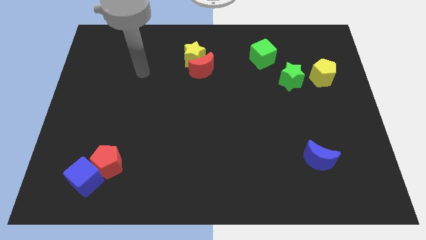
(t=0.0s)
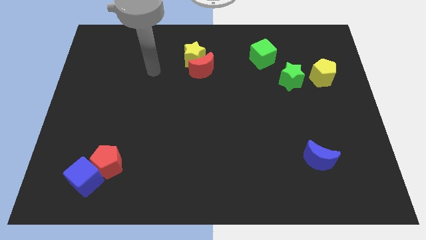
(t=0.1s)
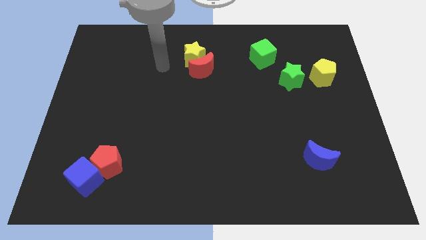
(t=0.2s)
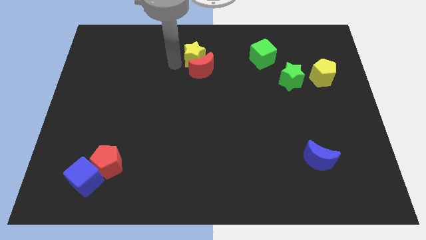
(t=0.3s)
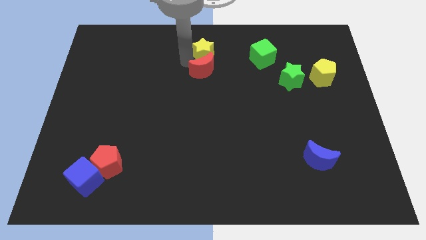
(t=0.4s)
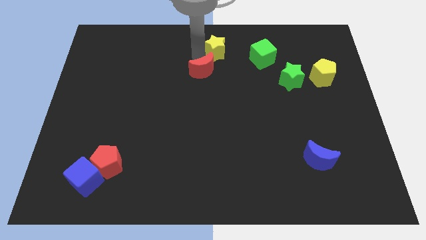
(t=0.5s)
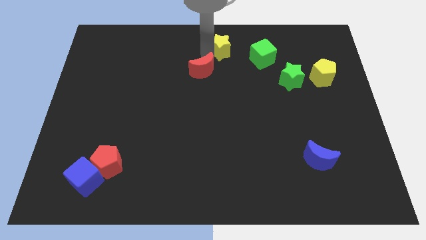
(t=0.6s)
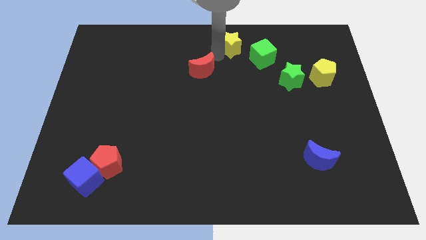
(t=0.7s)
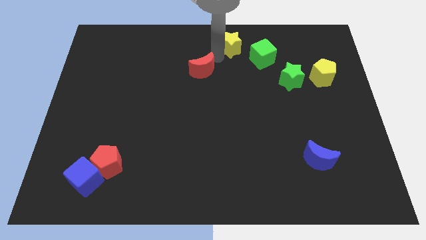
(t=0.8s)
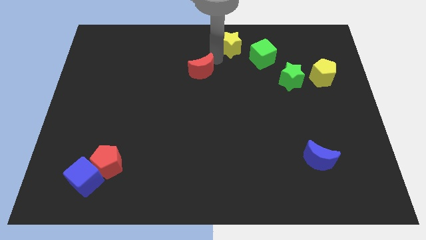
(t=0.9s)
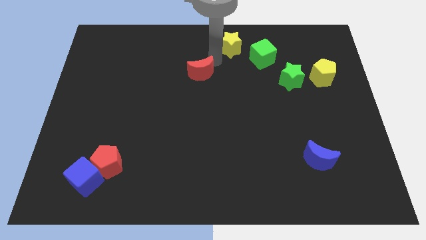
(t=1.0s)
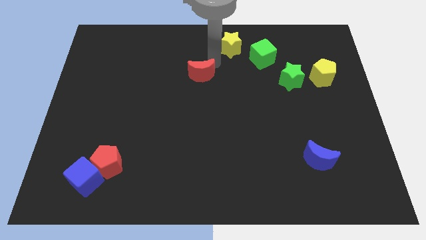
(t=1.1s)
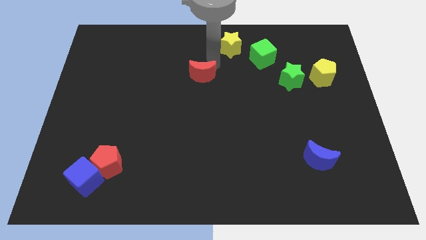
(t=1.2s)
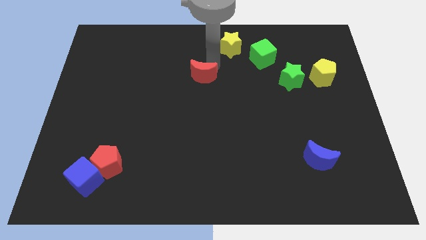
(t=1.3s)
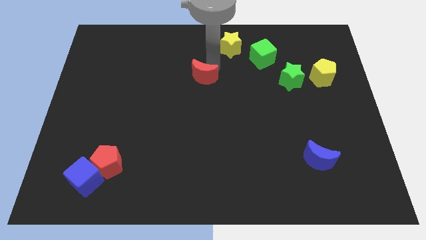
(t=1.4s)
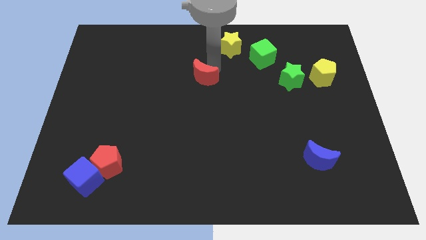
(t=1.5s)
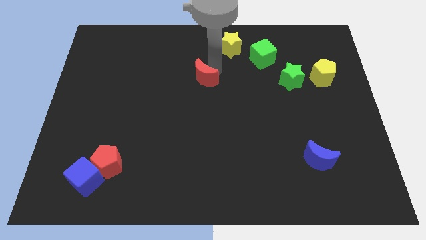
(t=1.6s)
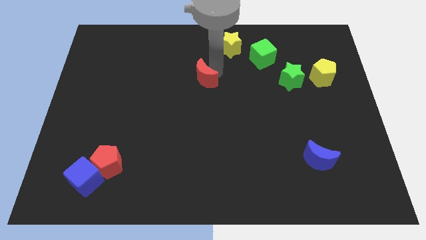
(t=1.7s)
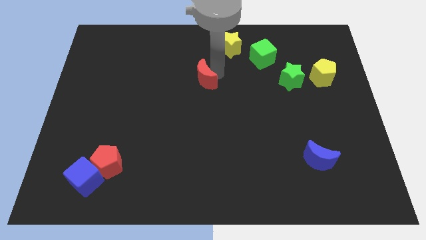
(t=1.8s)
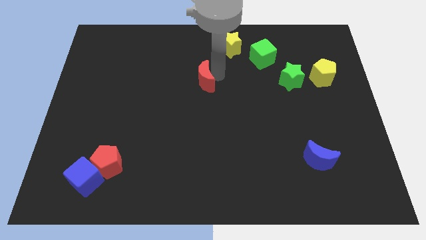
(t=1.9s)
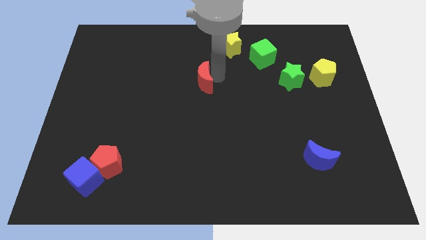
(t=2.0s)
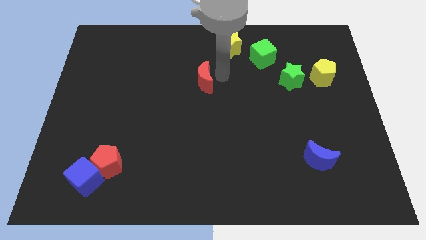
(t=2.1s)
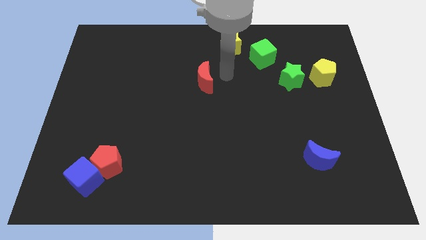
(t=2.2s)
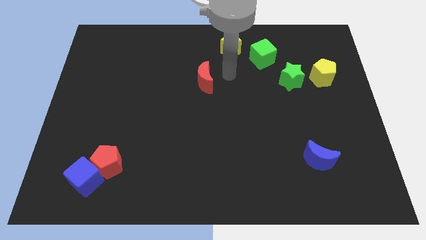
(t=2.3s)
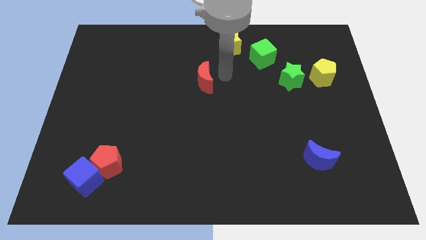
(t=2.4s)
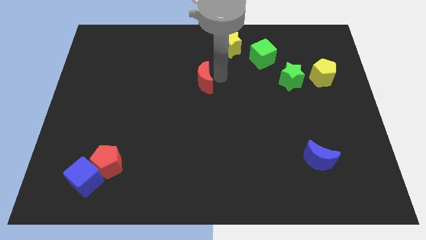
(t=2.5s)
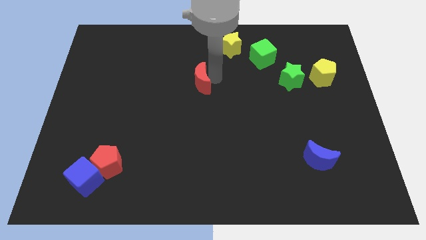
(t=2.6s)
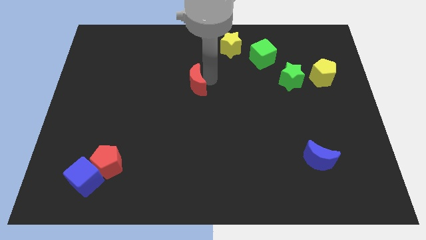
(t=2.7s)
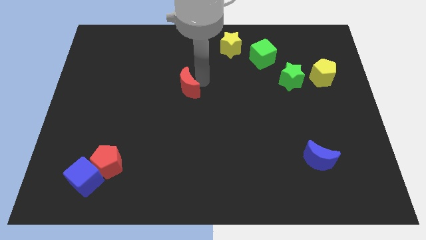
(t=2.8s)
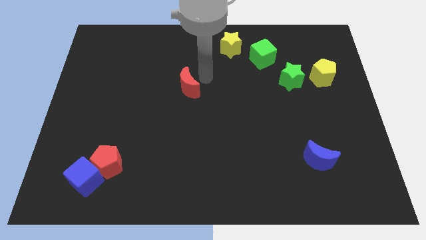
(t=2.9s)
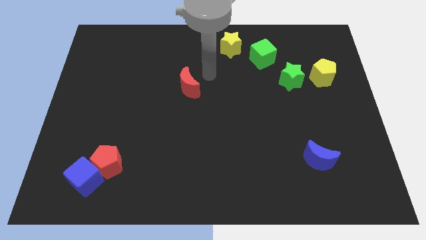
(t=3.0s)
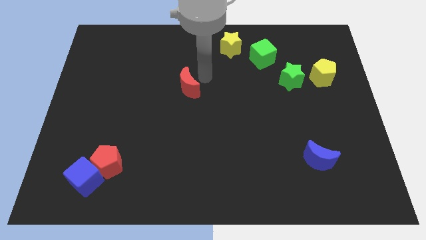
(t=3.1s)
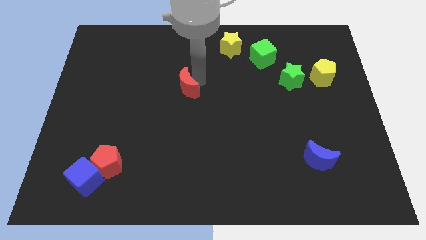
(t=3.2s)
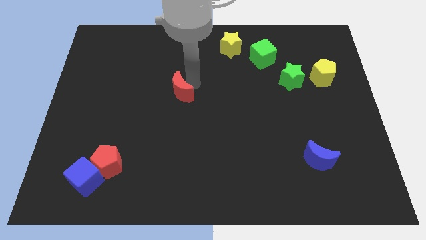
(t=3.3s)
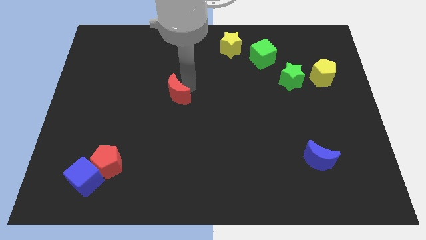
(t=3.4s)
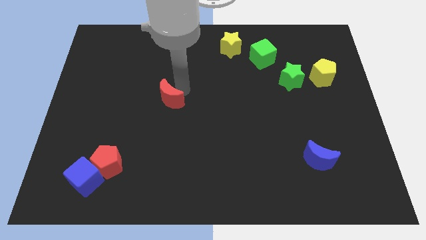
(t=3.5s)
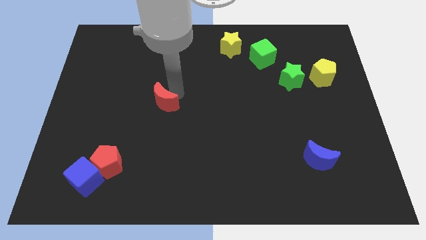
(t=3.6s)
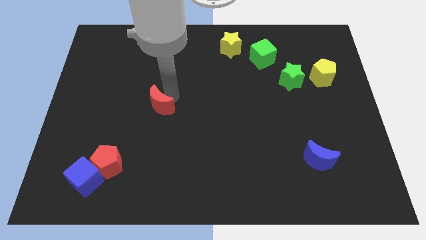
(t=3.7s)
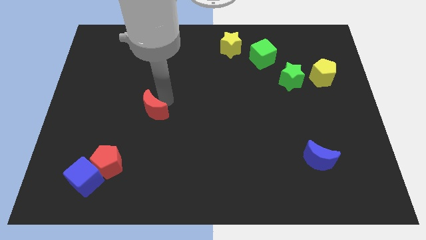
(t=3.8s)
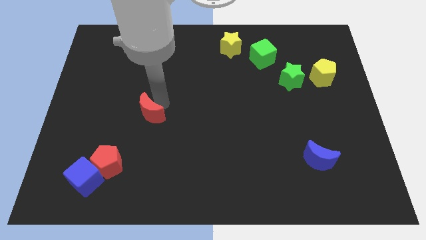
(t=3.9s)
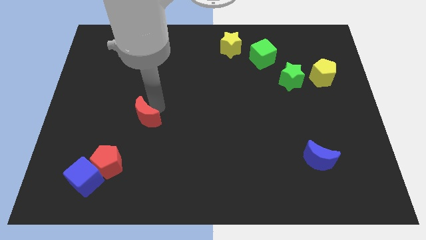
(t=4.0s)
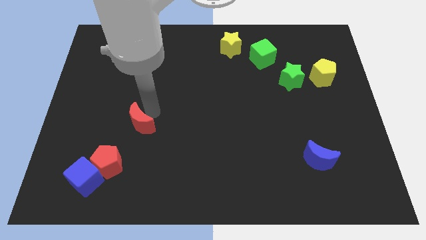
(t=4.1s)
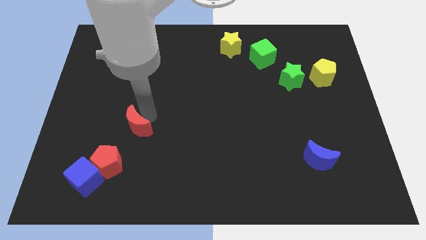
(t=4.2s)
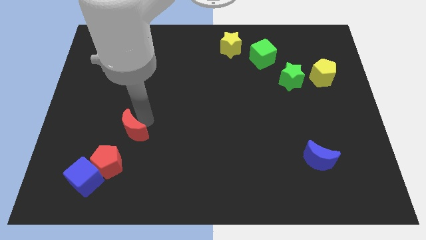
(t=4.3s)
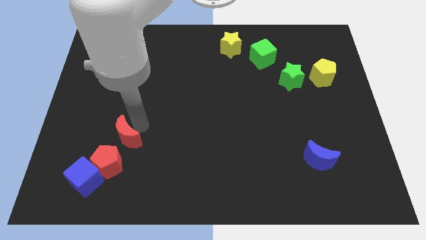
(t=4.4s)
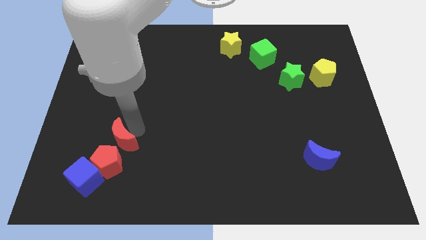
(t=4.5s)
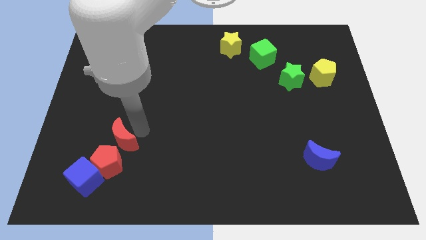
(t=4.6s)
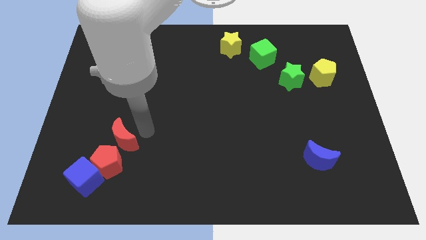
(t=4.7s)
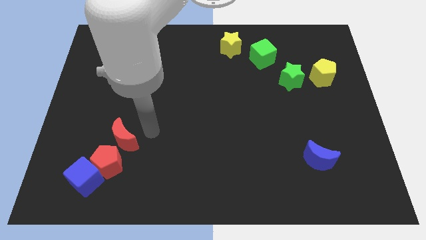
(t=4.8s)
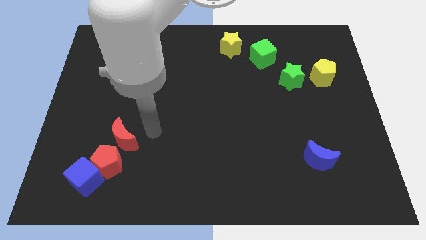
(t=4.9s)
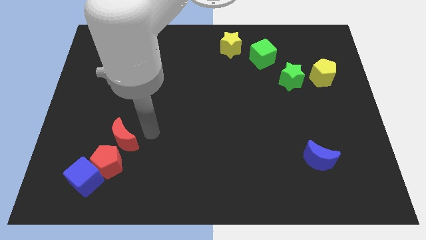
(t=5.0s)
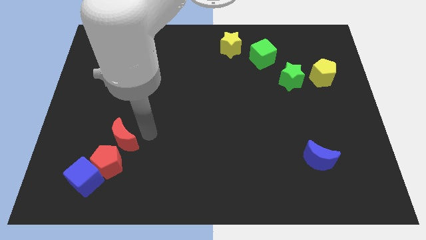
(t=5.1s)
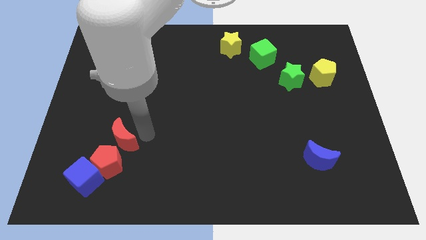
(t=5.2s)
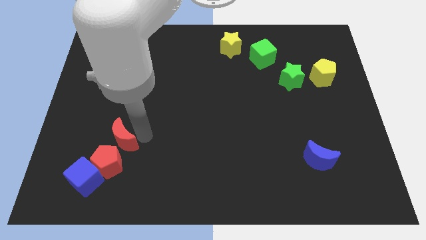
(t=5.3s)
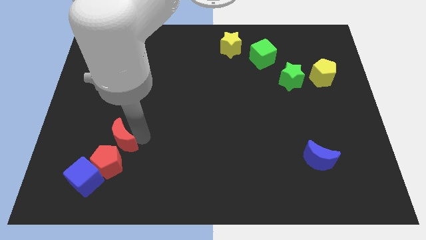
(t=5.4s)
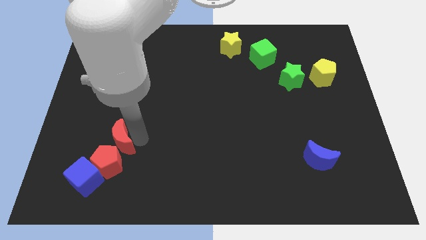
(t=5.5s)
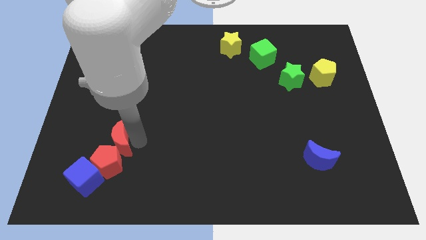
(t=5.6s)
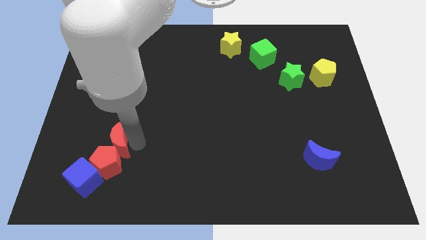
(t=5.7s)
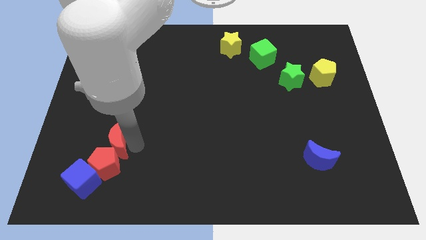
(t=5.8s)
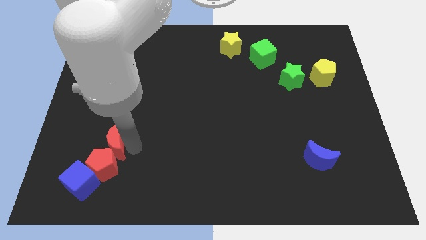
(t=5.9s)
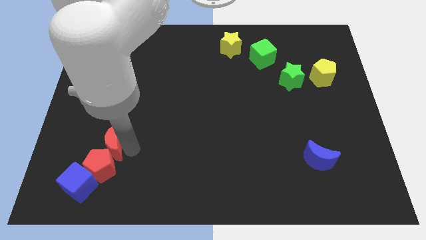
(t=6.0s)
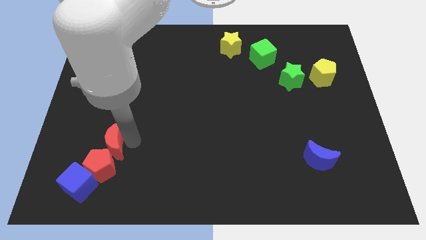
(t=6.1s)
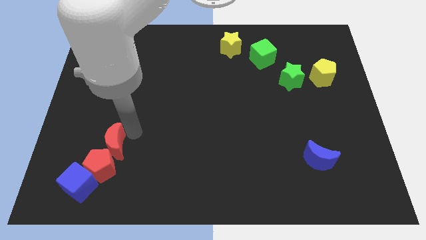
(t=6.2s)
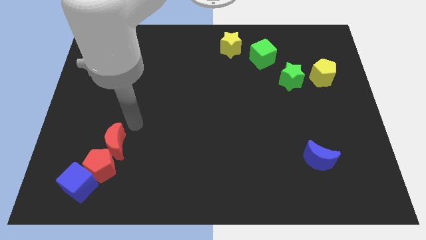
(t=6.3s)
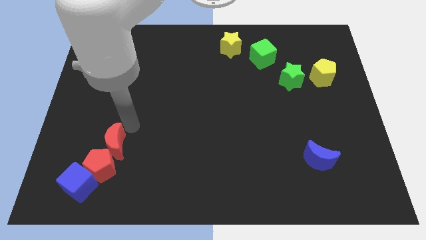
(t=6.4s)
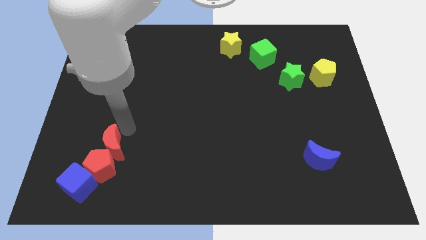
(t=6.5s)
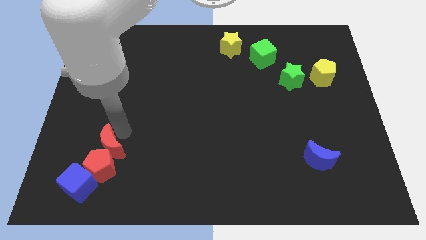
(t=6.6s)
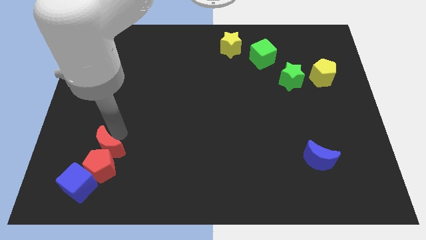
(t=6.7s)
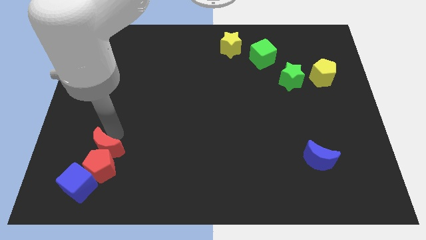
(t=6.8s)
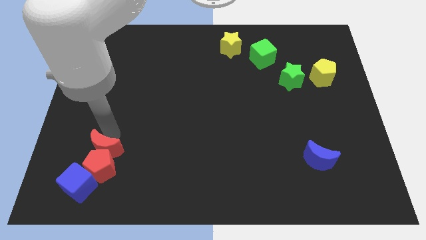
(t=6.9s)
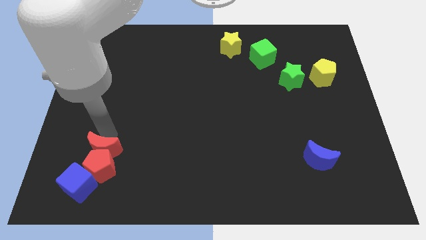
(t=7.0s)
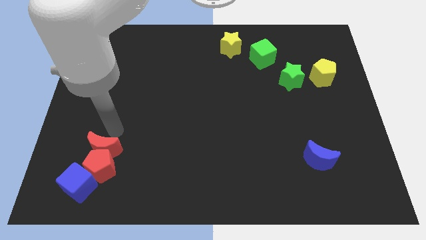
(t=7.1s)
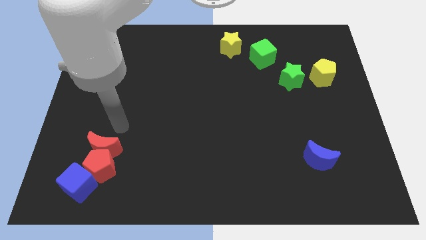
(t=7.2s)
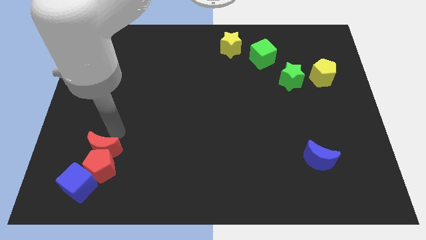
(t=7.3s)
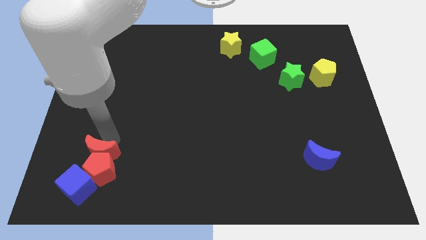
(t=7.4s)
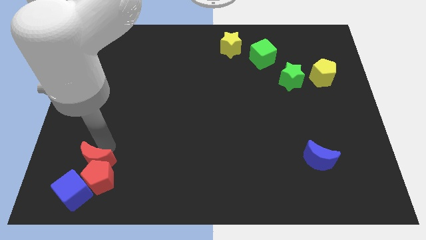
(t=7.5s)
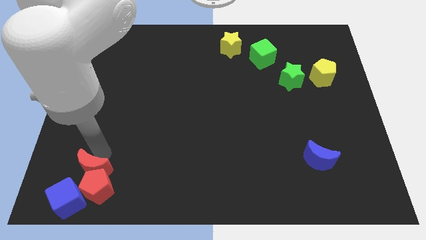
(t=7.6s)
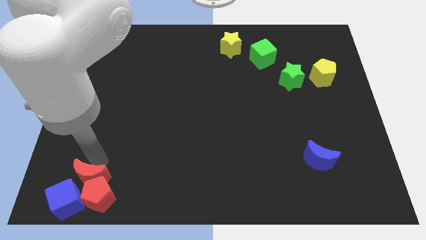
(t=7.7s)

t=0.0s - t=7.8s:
move the red moon next to the blue cube
